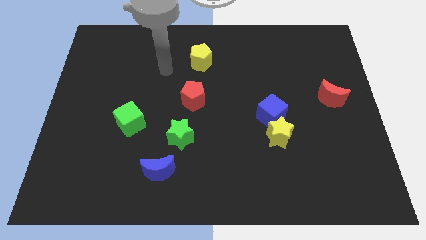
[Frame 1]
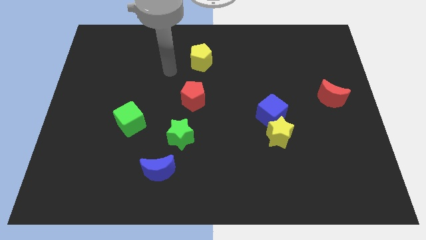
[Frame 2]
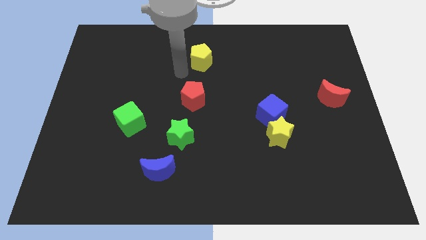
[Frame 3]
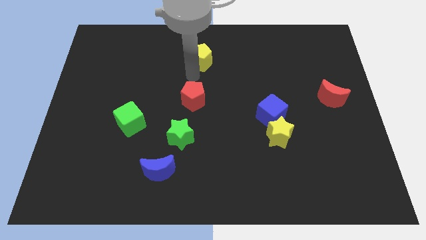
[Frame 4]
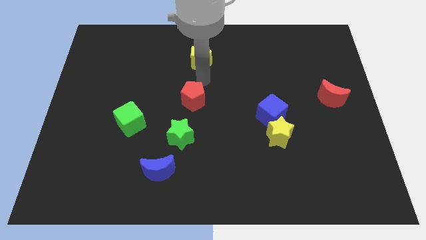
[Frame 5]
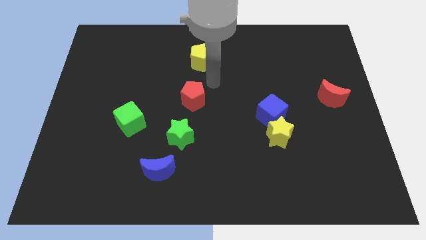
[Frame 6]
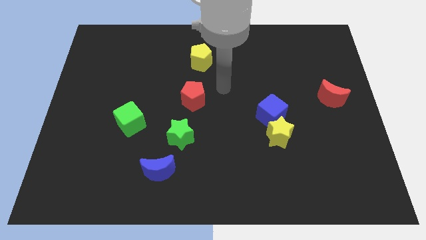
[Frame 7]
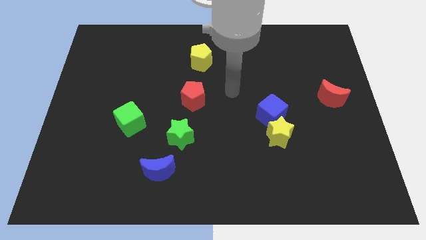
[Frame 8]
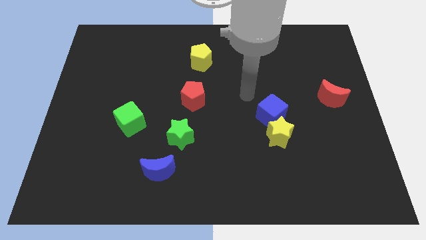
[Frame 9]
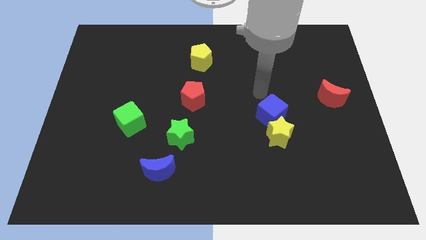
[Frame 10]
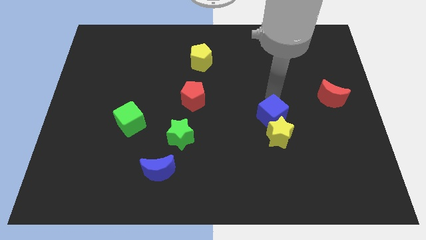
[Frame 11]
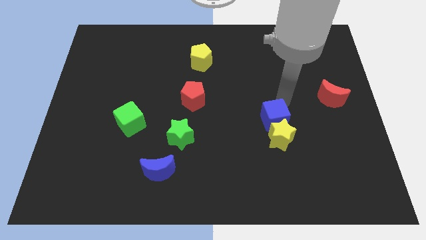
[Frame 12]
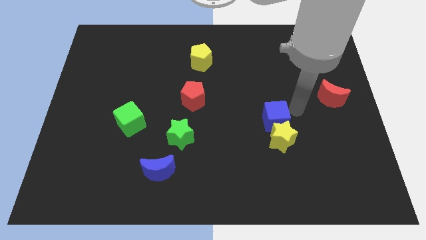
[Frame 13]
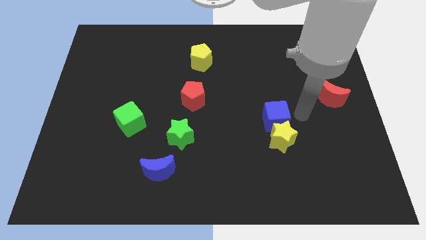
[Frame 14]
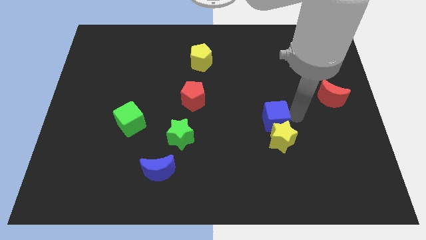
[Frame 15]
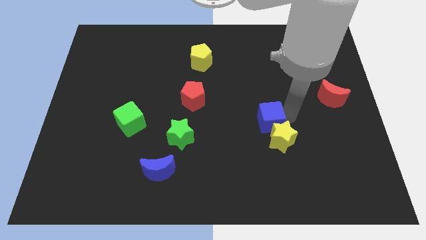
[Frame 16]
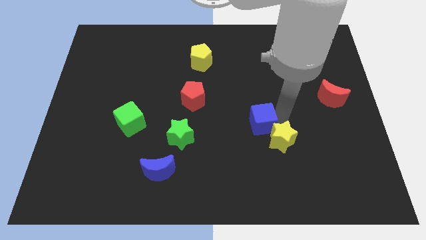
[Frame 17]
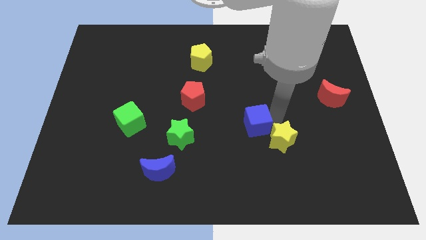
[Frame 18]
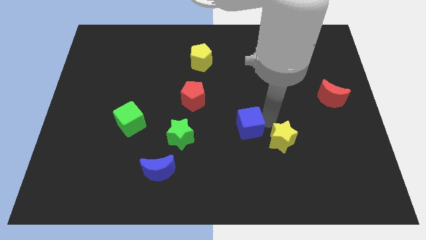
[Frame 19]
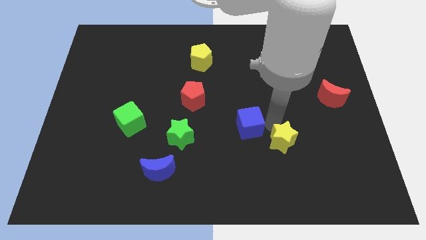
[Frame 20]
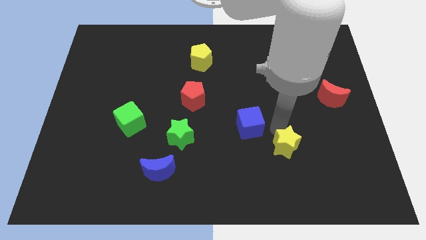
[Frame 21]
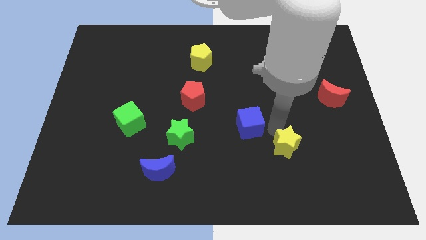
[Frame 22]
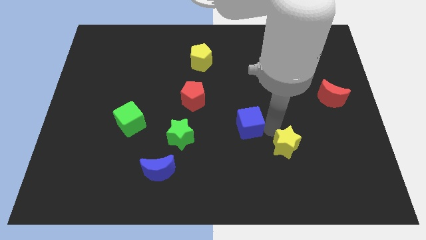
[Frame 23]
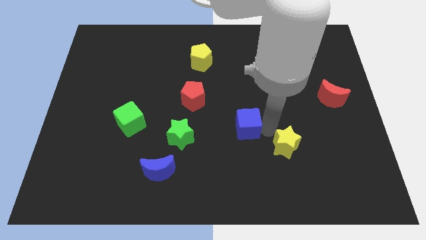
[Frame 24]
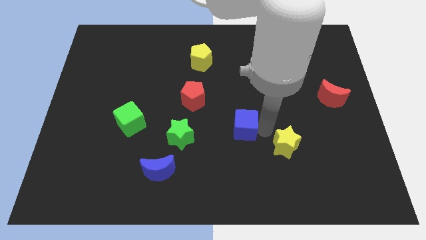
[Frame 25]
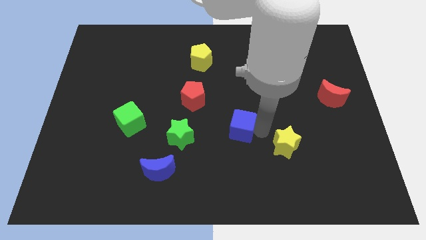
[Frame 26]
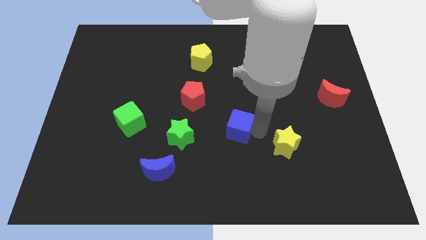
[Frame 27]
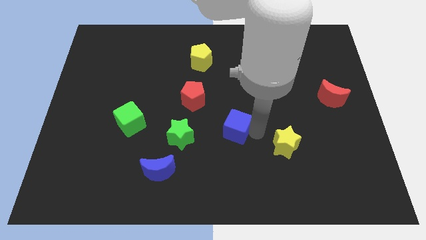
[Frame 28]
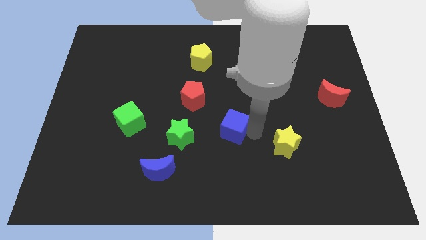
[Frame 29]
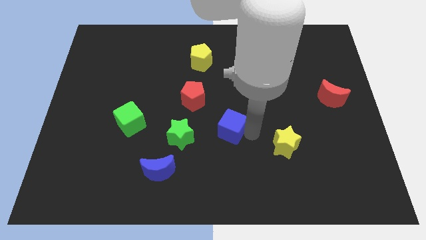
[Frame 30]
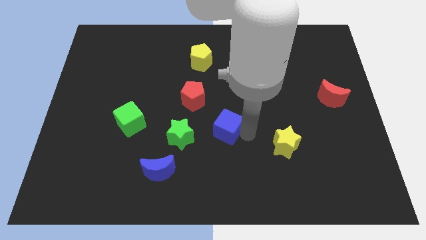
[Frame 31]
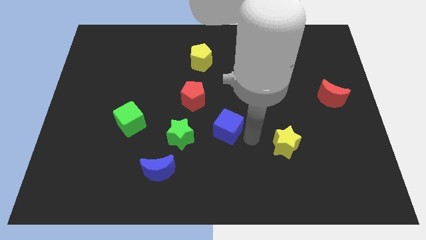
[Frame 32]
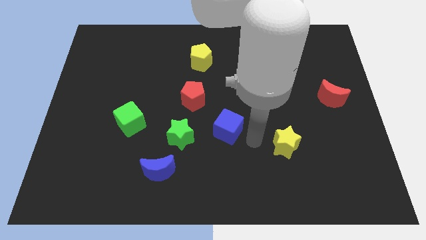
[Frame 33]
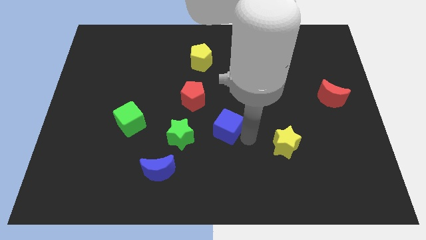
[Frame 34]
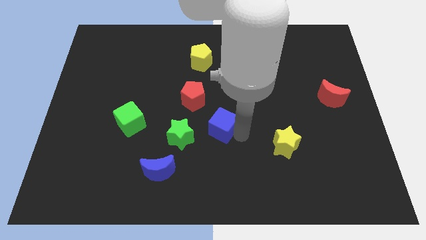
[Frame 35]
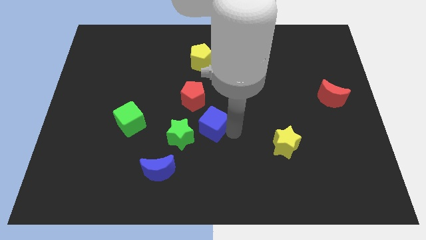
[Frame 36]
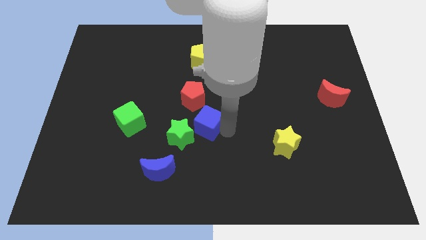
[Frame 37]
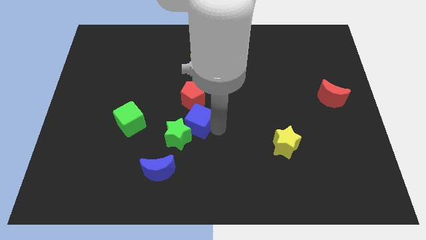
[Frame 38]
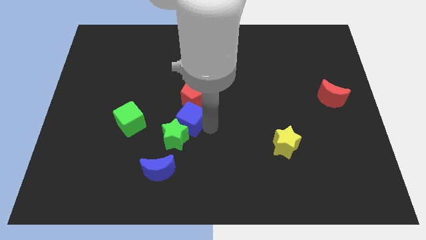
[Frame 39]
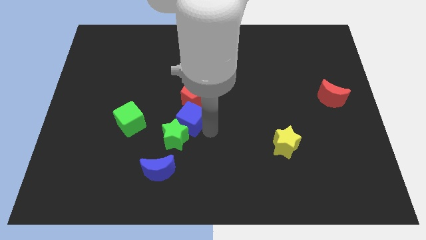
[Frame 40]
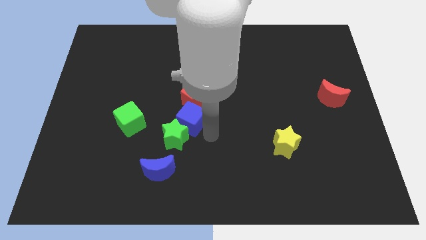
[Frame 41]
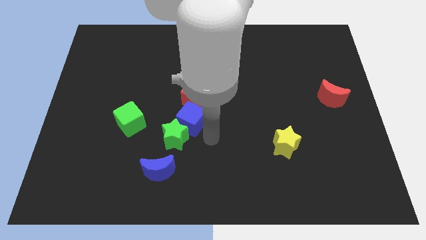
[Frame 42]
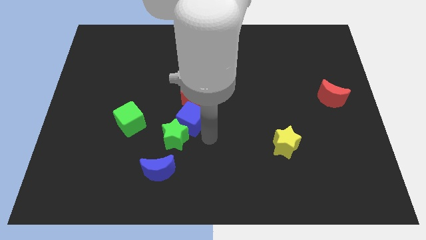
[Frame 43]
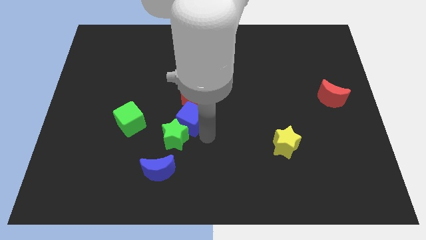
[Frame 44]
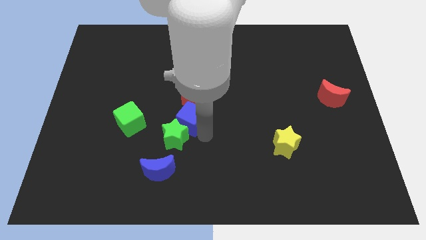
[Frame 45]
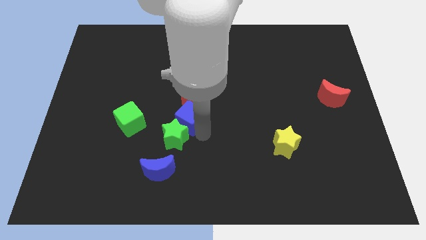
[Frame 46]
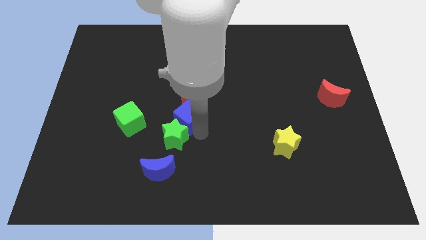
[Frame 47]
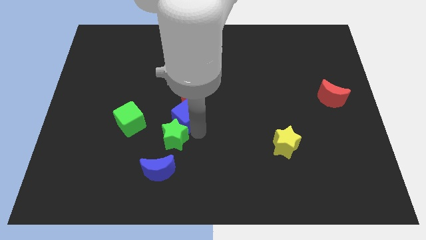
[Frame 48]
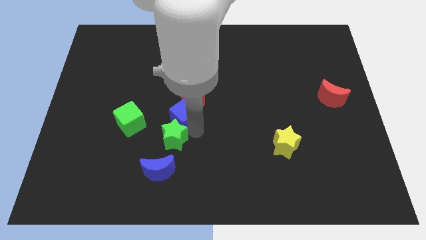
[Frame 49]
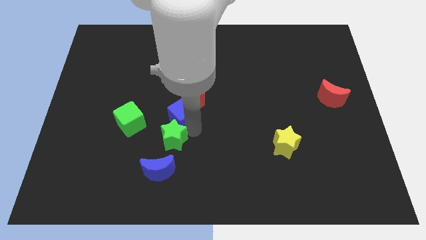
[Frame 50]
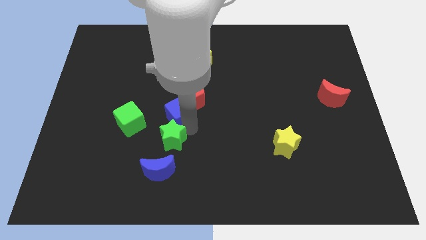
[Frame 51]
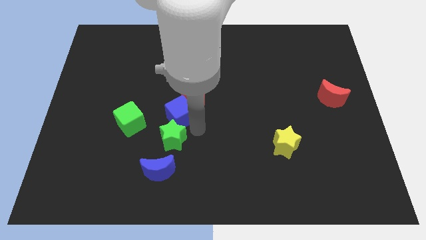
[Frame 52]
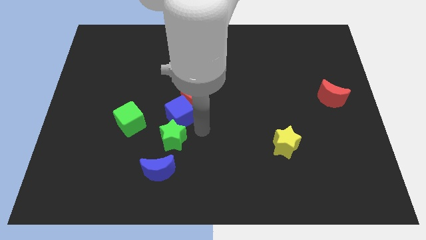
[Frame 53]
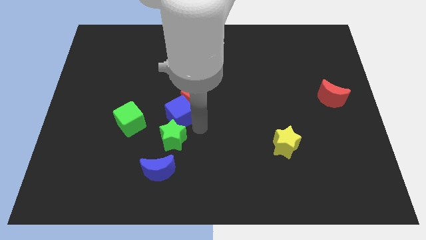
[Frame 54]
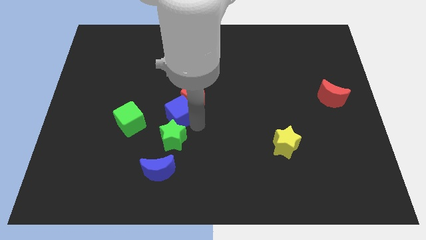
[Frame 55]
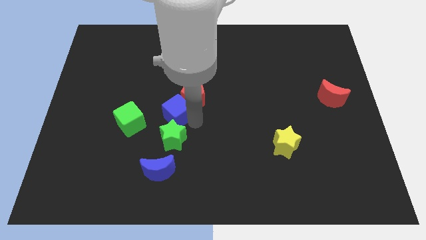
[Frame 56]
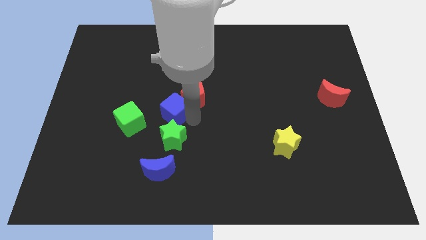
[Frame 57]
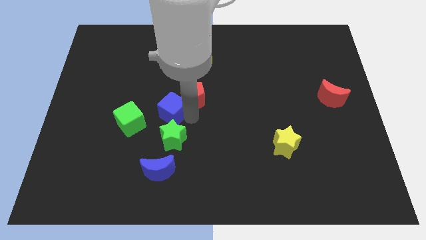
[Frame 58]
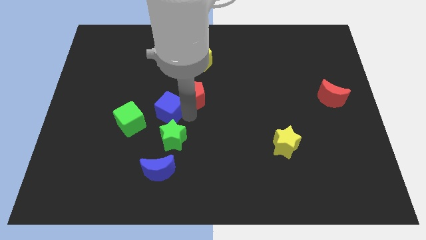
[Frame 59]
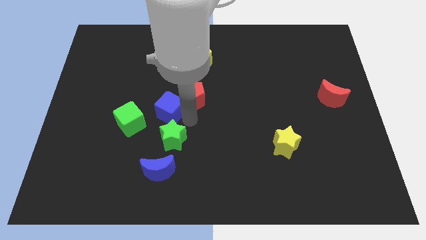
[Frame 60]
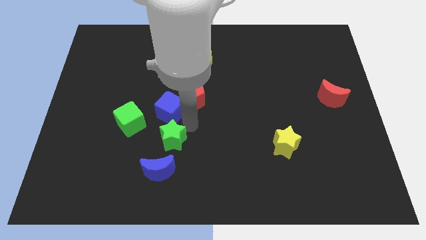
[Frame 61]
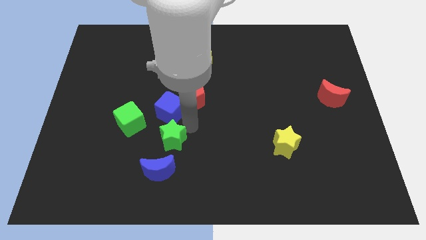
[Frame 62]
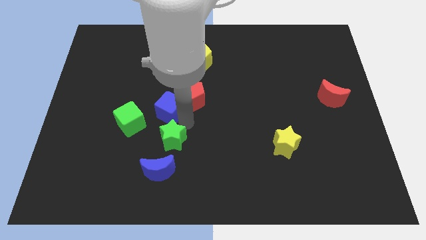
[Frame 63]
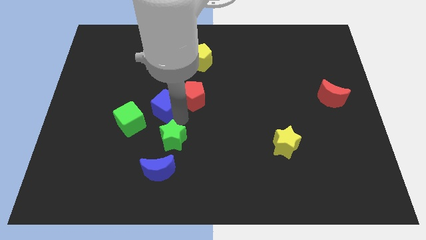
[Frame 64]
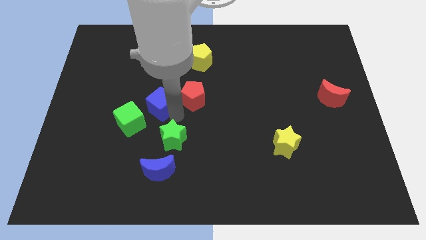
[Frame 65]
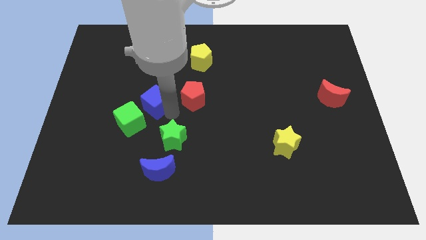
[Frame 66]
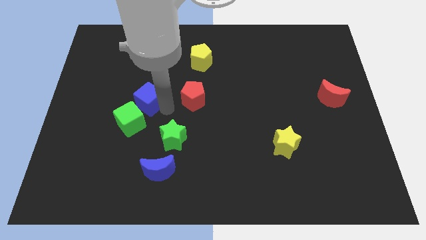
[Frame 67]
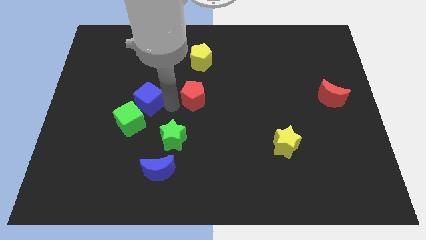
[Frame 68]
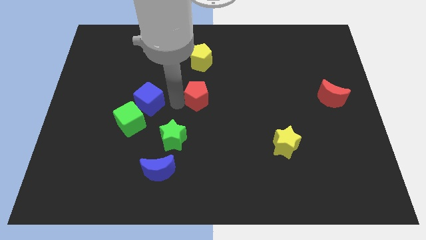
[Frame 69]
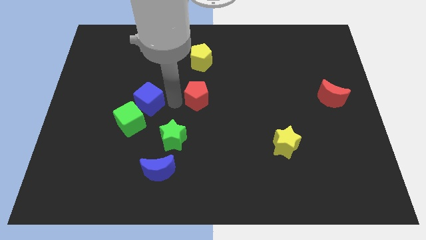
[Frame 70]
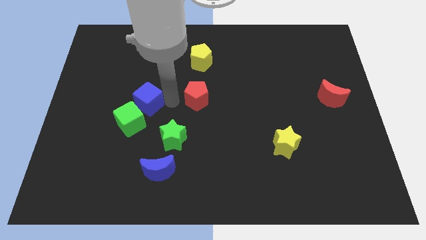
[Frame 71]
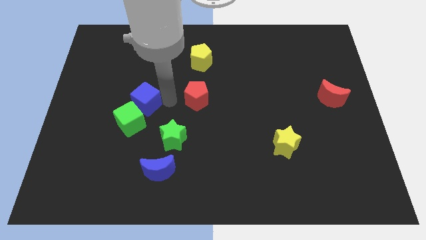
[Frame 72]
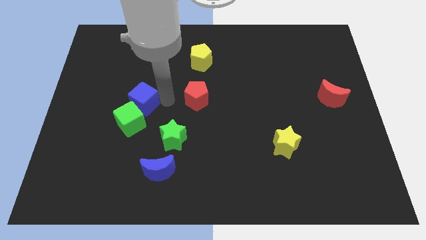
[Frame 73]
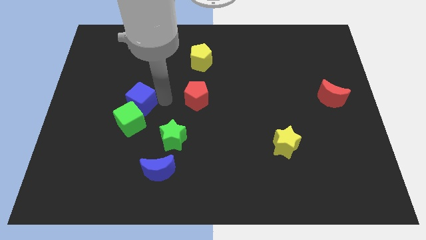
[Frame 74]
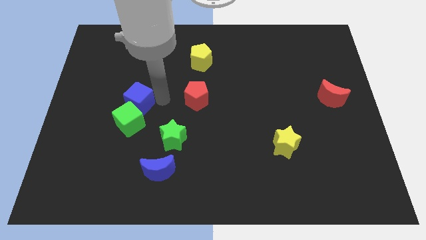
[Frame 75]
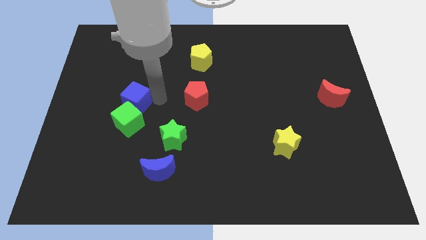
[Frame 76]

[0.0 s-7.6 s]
put the blue cube to the top left of the green cube
